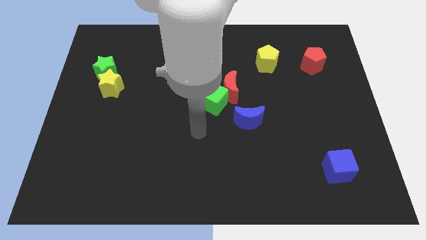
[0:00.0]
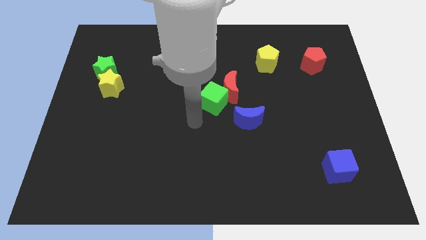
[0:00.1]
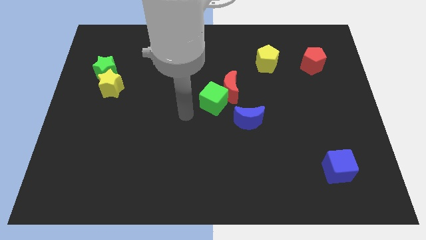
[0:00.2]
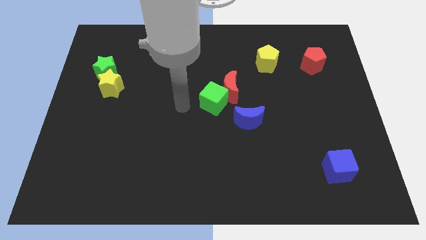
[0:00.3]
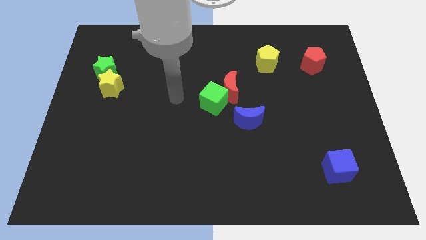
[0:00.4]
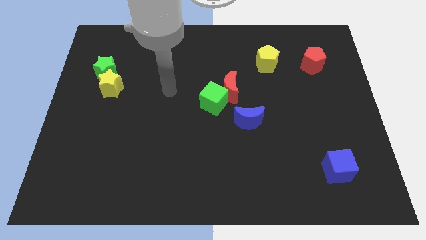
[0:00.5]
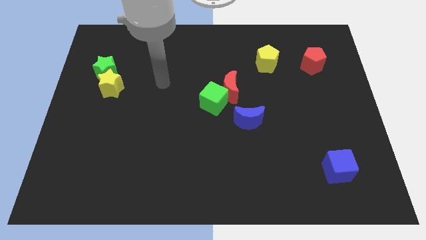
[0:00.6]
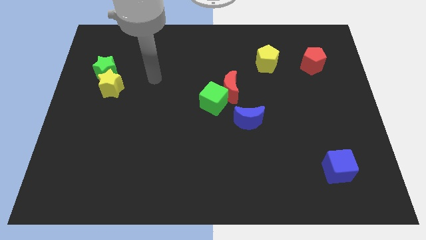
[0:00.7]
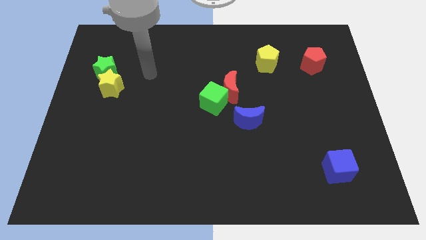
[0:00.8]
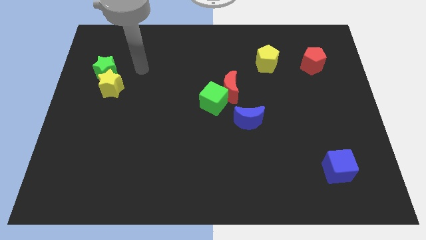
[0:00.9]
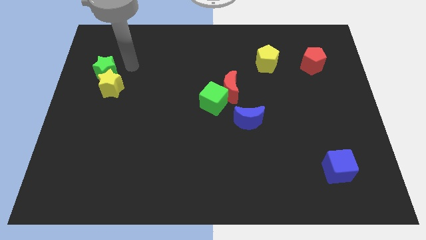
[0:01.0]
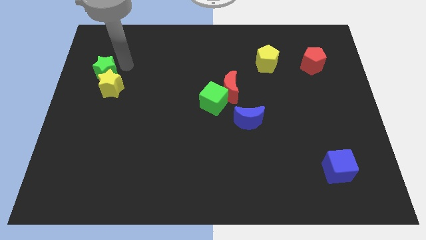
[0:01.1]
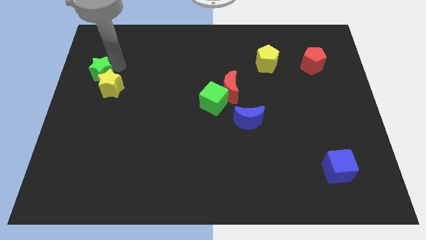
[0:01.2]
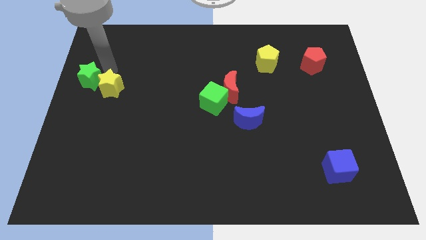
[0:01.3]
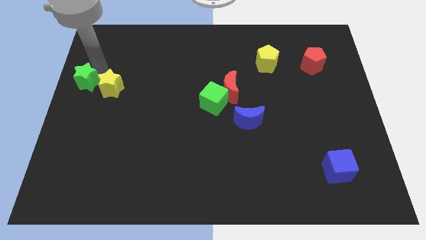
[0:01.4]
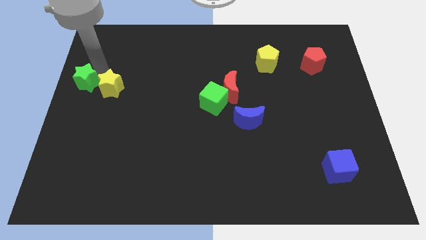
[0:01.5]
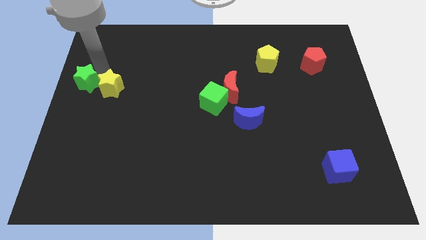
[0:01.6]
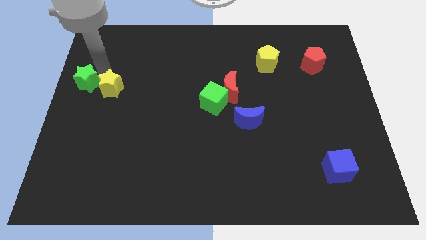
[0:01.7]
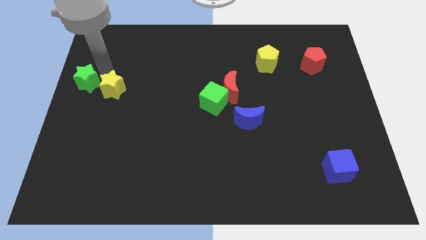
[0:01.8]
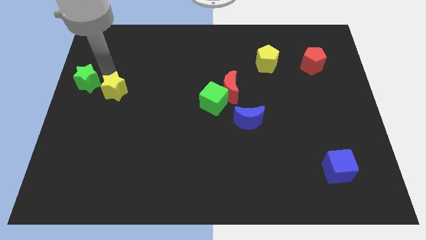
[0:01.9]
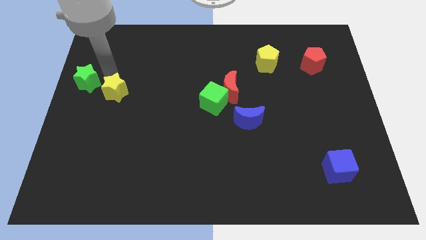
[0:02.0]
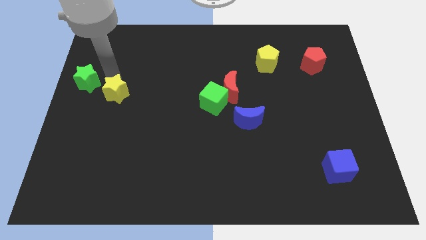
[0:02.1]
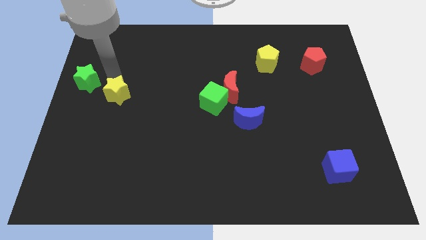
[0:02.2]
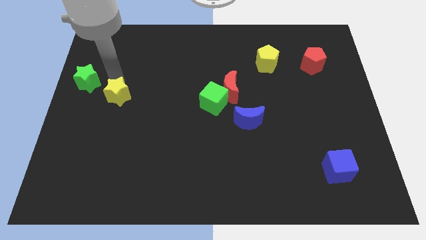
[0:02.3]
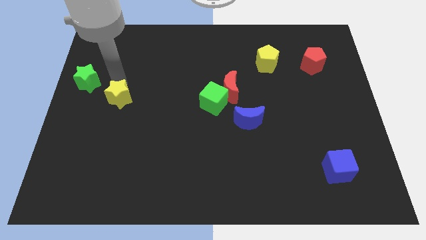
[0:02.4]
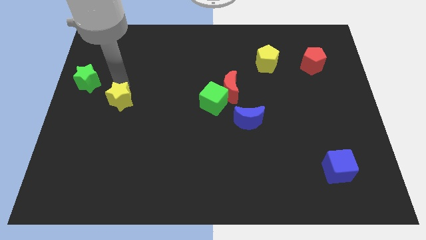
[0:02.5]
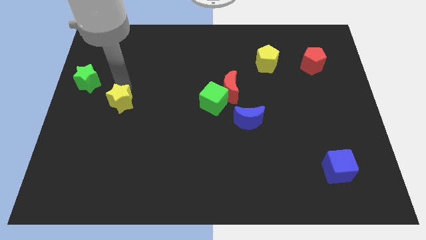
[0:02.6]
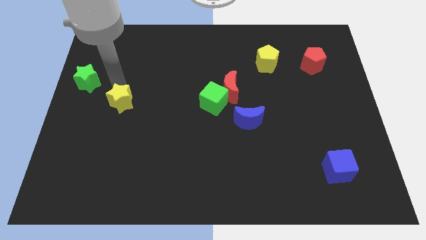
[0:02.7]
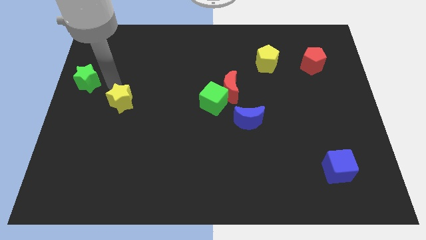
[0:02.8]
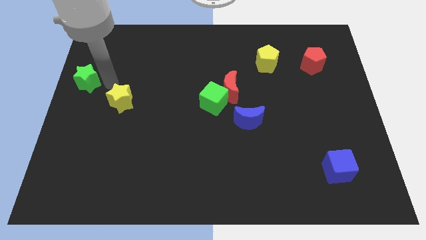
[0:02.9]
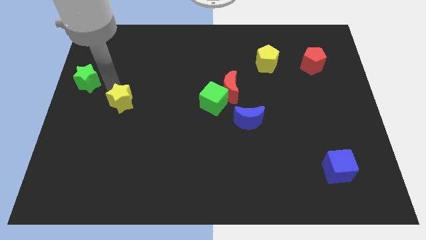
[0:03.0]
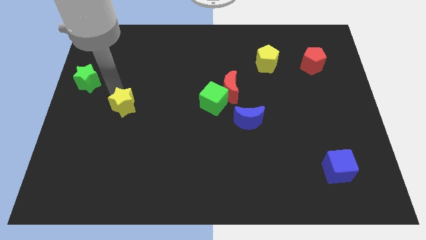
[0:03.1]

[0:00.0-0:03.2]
move the yellow star diagonally downwards and to the right a bit

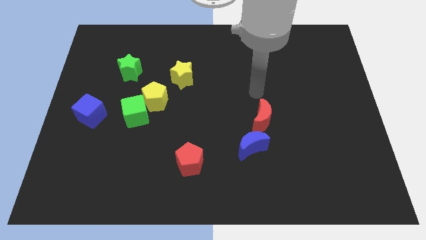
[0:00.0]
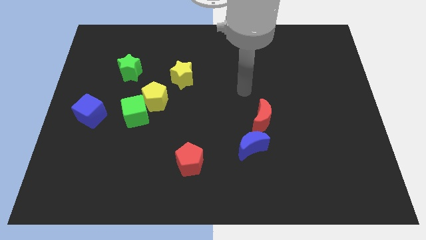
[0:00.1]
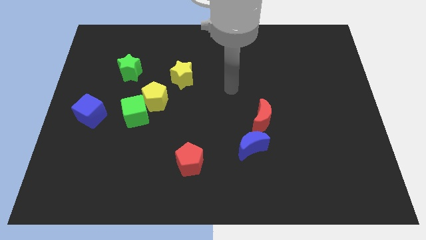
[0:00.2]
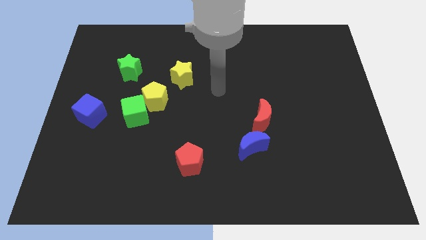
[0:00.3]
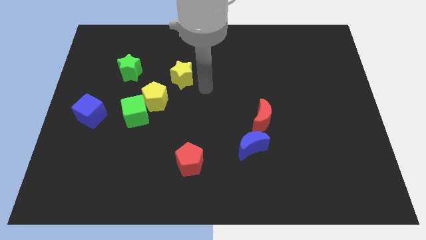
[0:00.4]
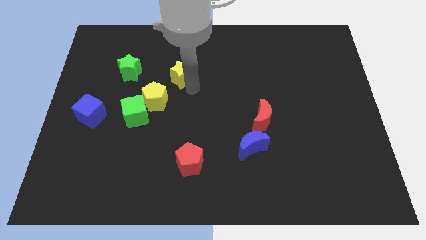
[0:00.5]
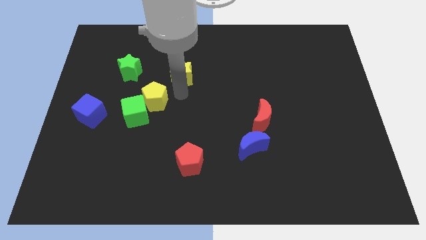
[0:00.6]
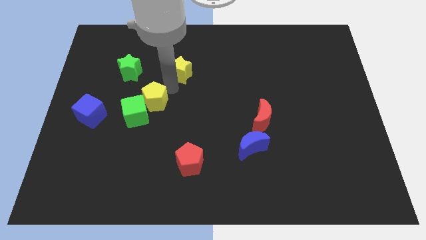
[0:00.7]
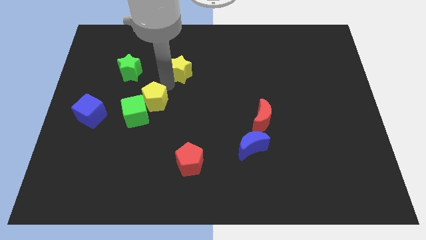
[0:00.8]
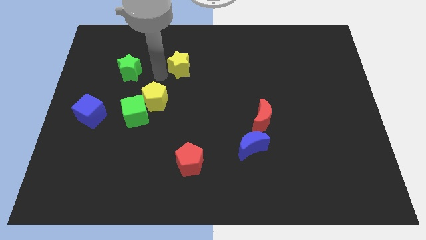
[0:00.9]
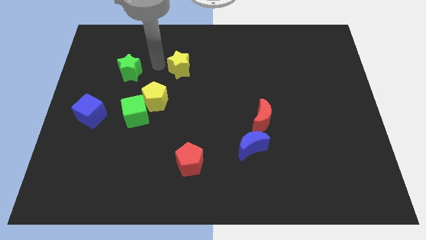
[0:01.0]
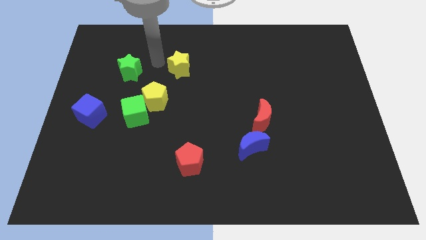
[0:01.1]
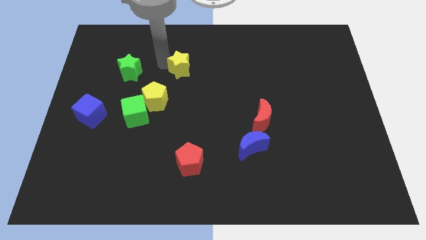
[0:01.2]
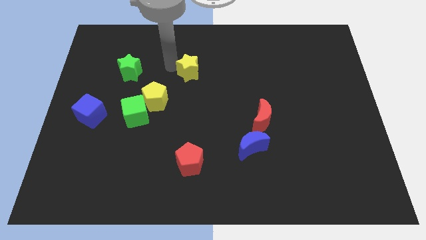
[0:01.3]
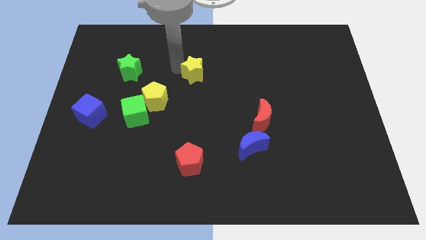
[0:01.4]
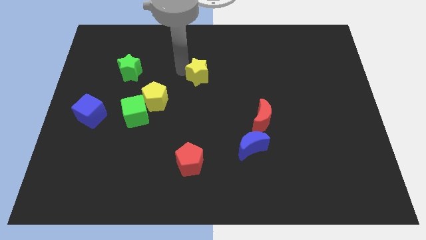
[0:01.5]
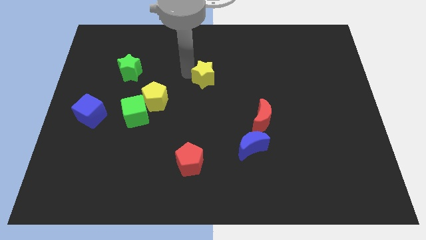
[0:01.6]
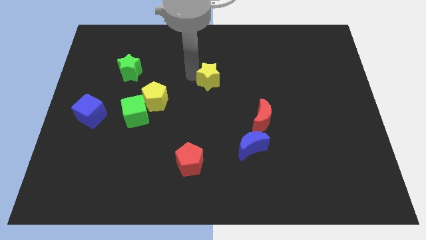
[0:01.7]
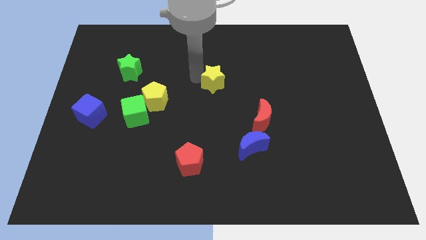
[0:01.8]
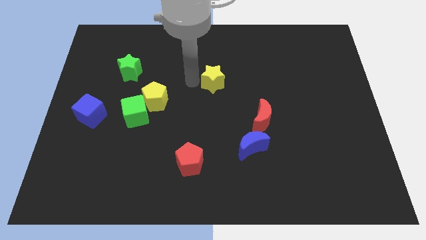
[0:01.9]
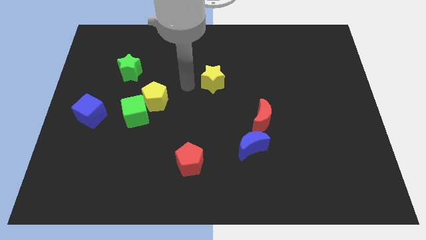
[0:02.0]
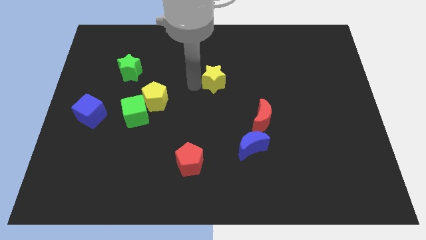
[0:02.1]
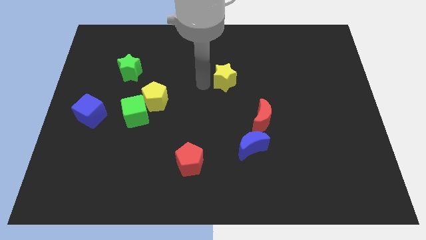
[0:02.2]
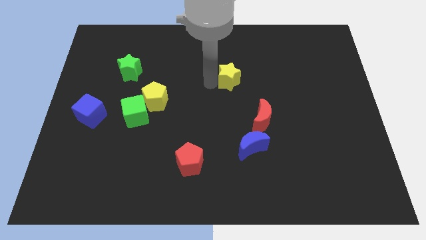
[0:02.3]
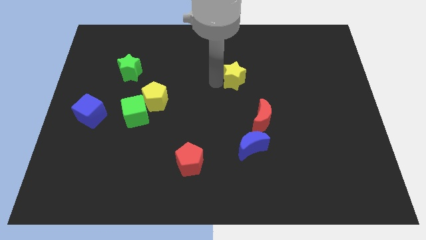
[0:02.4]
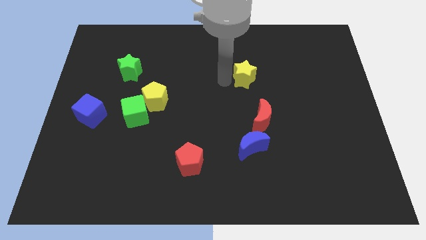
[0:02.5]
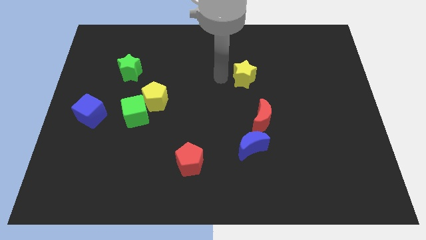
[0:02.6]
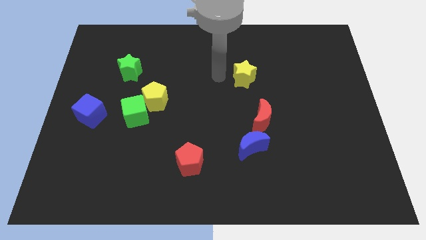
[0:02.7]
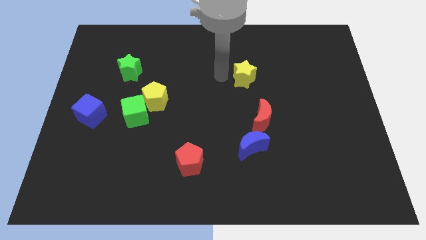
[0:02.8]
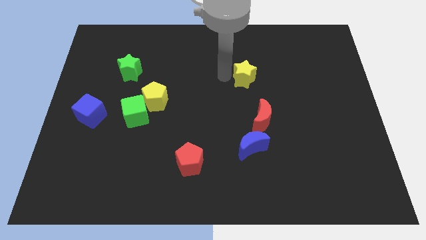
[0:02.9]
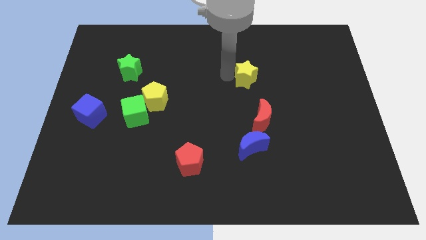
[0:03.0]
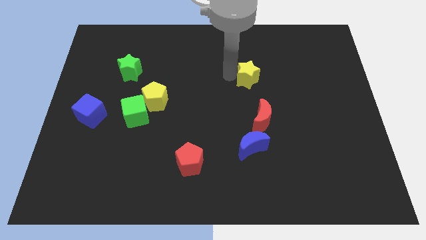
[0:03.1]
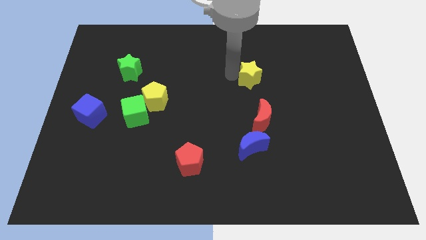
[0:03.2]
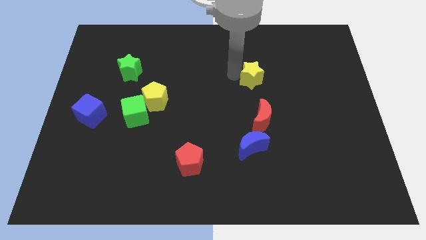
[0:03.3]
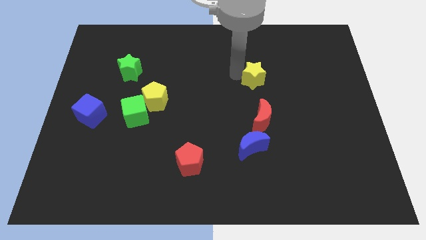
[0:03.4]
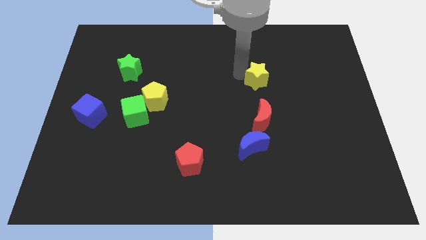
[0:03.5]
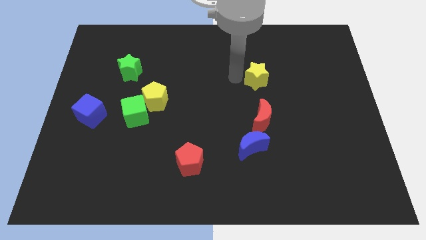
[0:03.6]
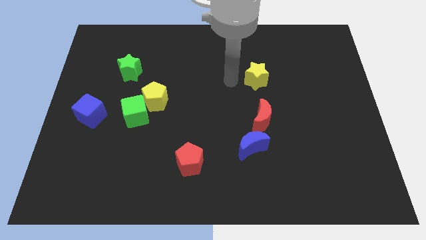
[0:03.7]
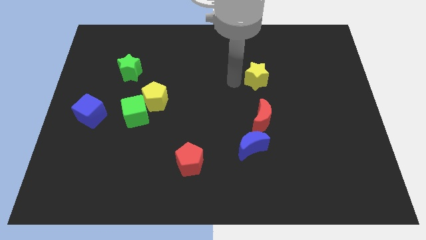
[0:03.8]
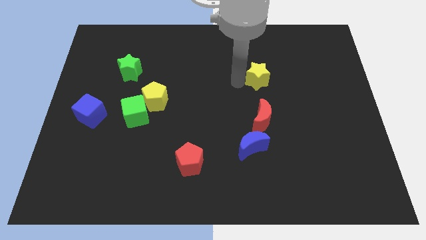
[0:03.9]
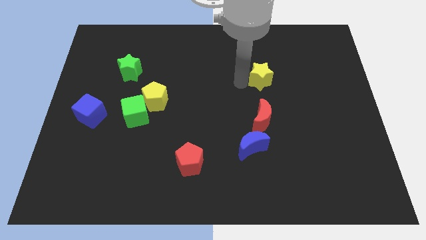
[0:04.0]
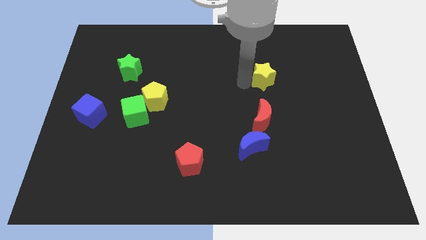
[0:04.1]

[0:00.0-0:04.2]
move the yellow star right

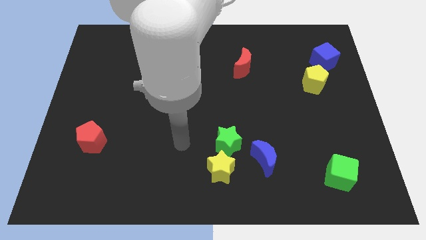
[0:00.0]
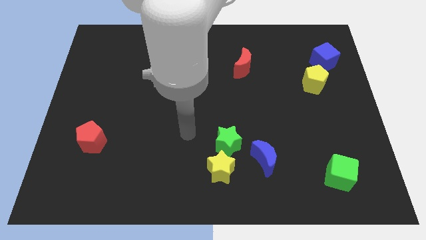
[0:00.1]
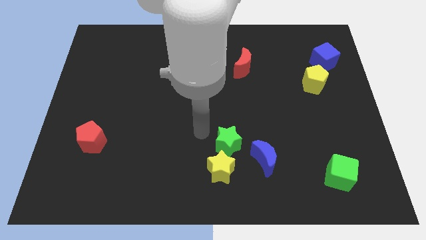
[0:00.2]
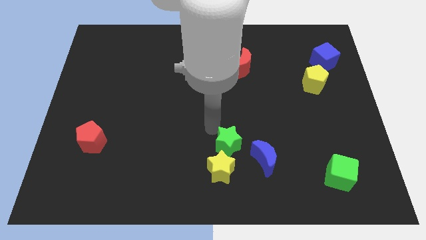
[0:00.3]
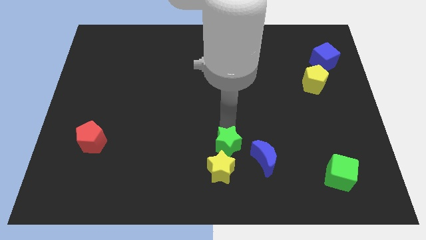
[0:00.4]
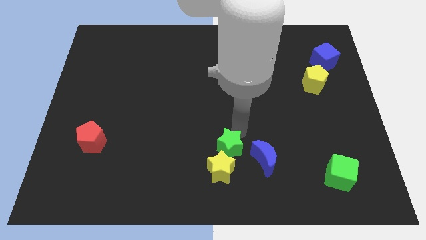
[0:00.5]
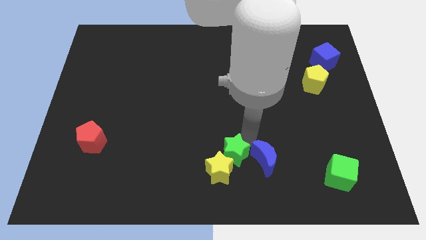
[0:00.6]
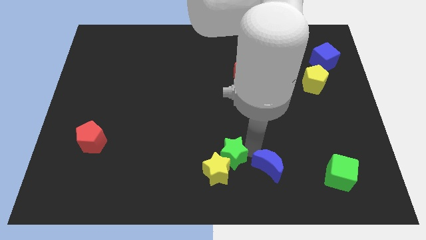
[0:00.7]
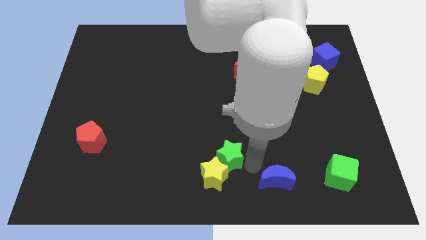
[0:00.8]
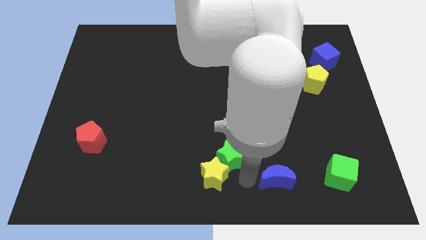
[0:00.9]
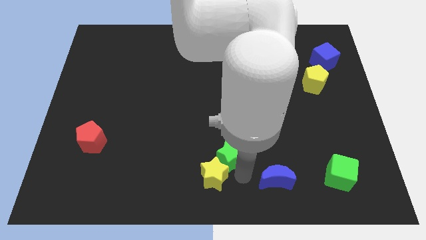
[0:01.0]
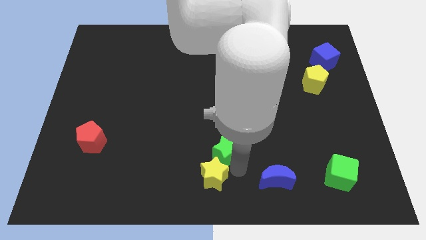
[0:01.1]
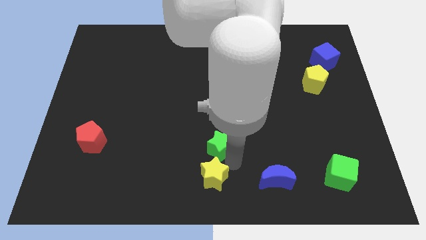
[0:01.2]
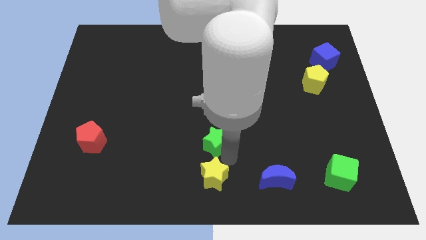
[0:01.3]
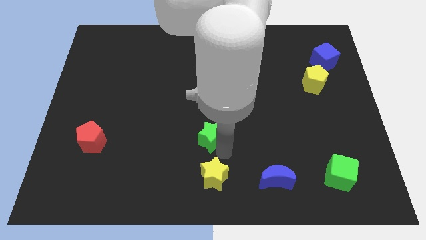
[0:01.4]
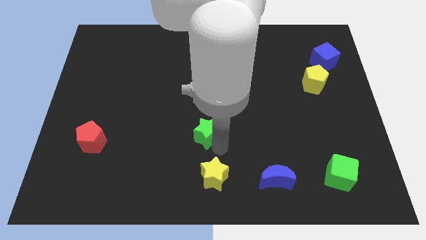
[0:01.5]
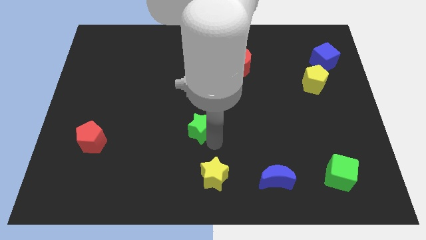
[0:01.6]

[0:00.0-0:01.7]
slightly slide the green star upwards and left diagonally
